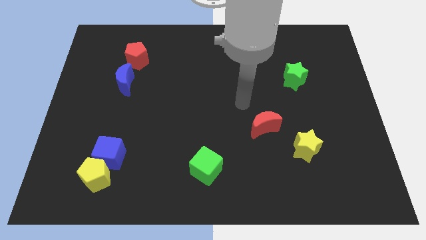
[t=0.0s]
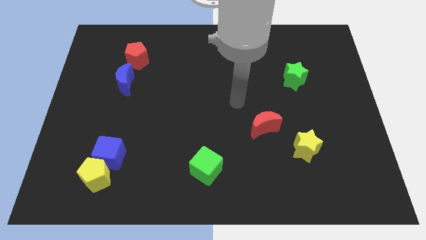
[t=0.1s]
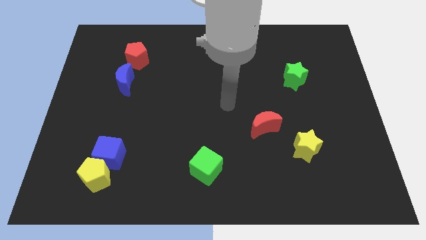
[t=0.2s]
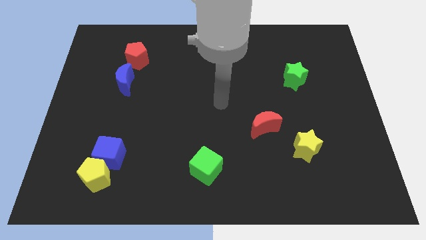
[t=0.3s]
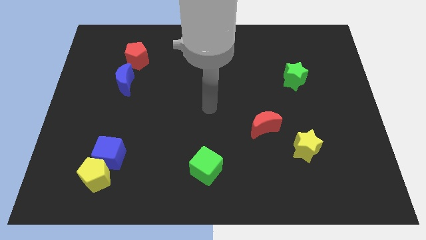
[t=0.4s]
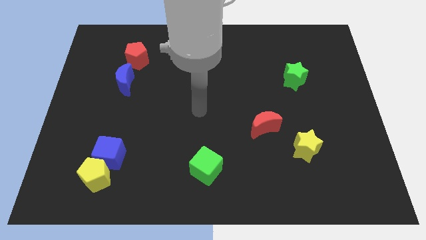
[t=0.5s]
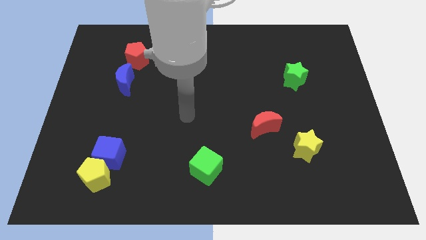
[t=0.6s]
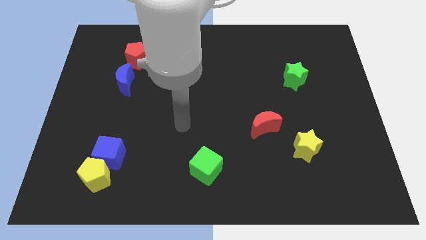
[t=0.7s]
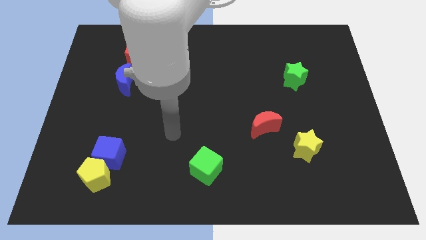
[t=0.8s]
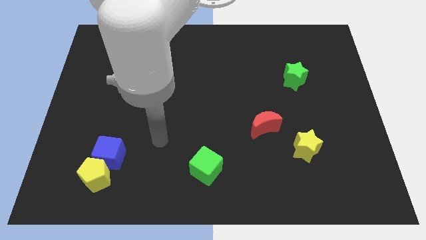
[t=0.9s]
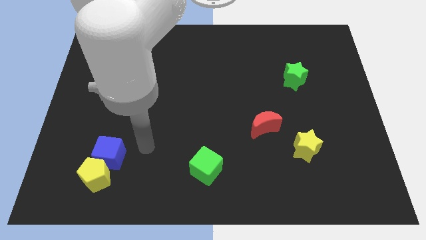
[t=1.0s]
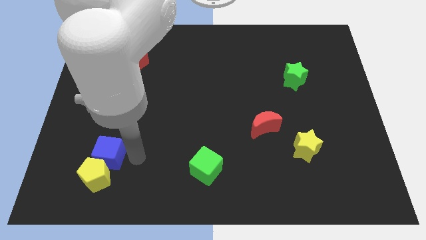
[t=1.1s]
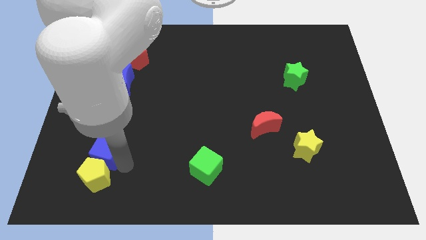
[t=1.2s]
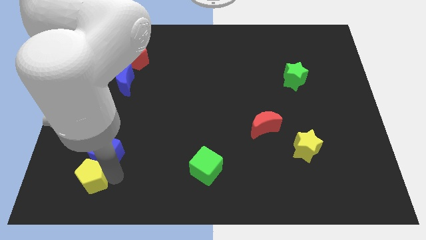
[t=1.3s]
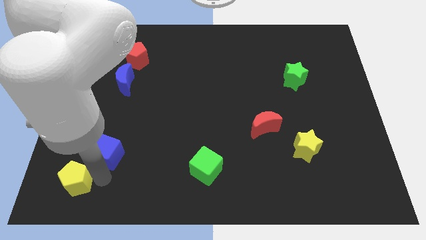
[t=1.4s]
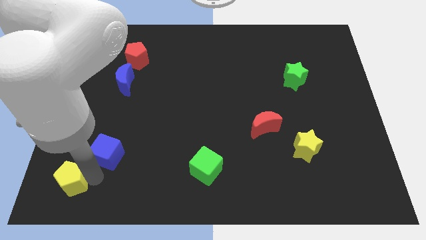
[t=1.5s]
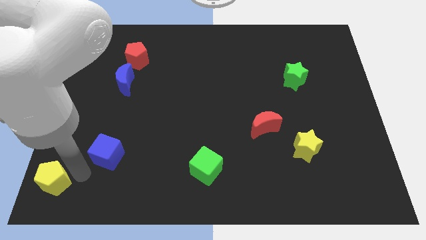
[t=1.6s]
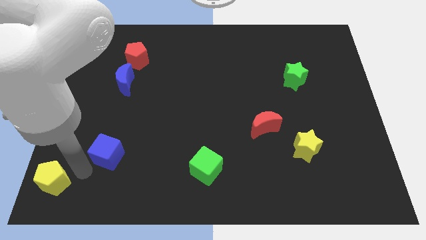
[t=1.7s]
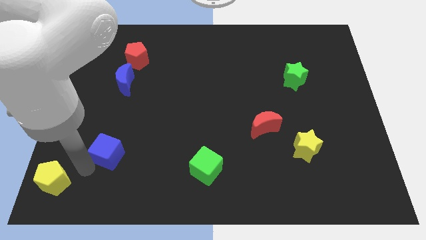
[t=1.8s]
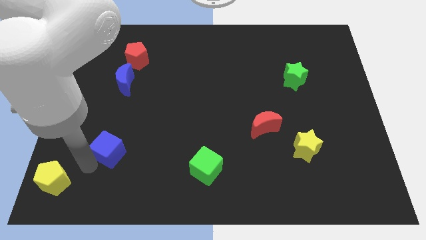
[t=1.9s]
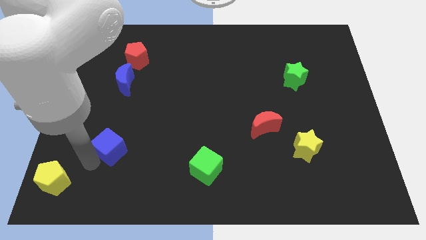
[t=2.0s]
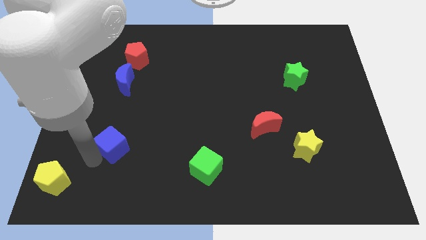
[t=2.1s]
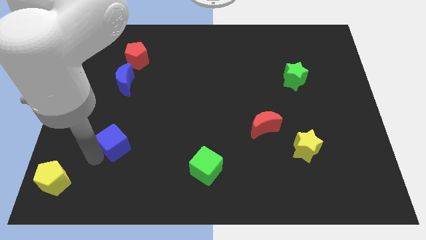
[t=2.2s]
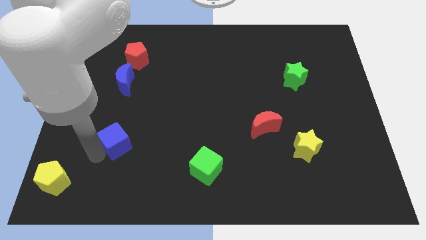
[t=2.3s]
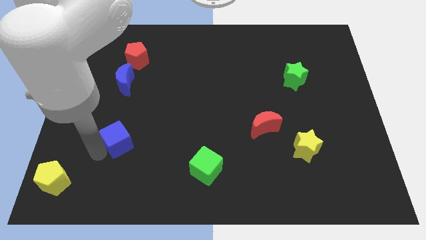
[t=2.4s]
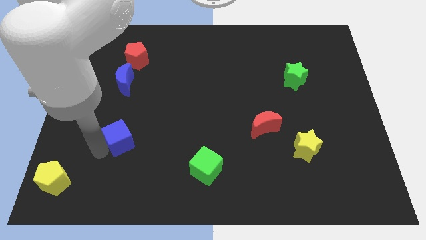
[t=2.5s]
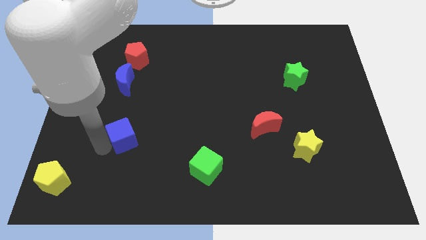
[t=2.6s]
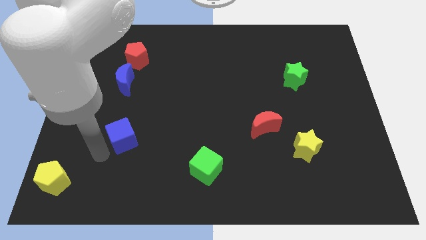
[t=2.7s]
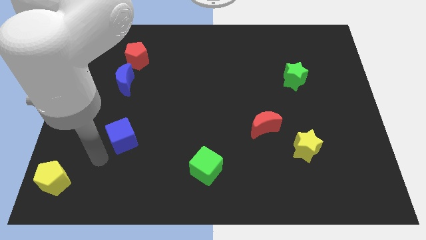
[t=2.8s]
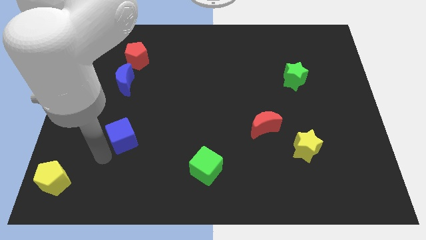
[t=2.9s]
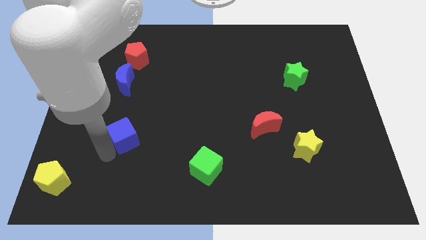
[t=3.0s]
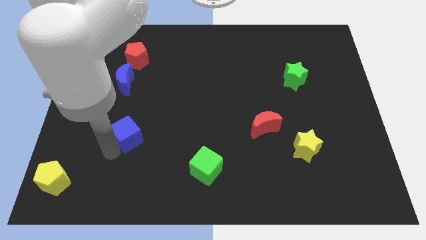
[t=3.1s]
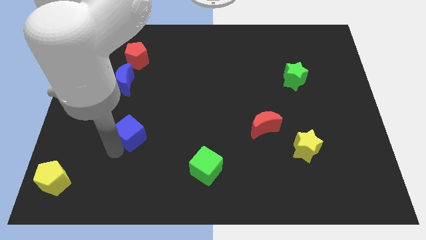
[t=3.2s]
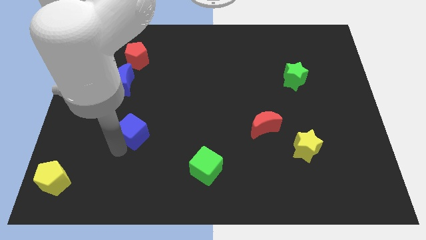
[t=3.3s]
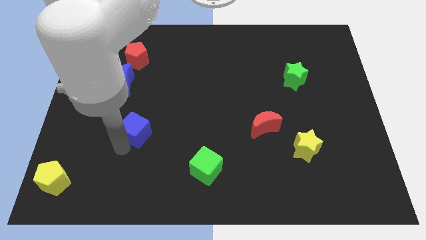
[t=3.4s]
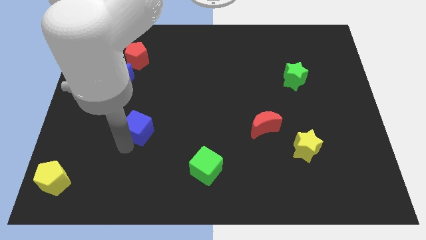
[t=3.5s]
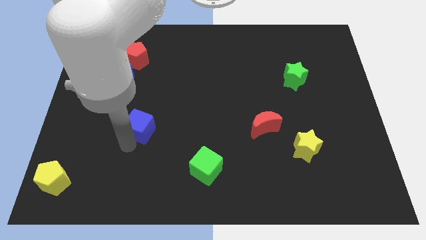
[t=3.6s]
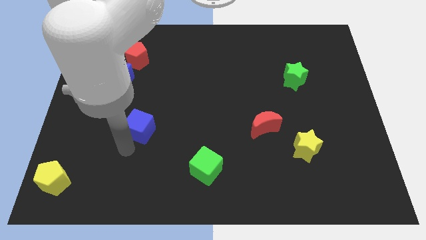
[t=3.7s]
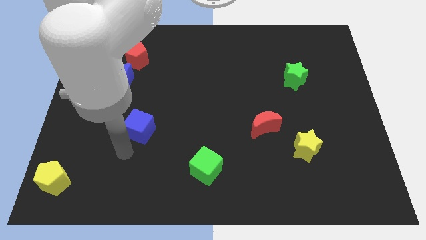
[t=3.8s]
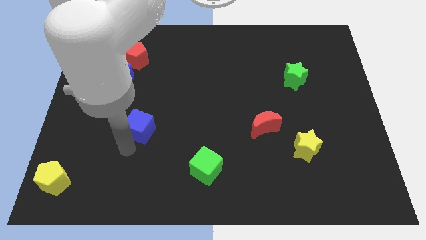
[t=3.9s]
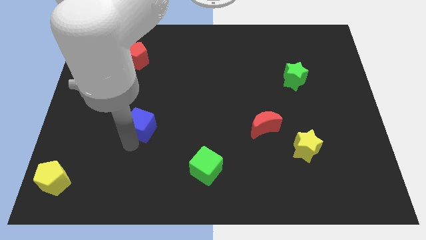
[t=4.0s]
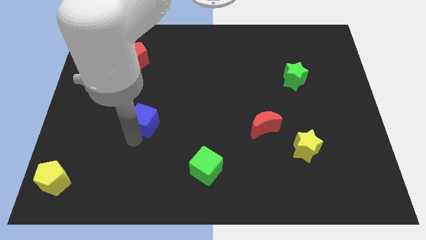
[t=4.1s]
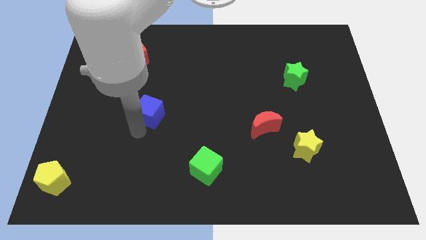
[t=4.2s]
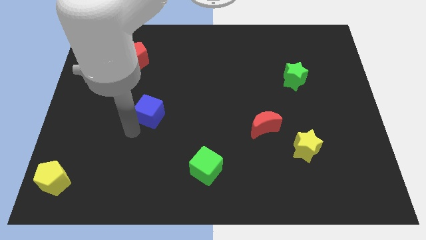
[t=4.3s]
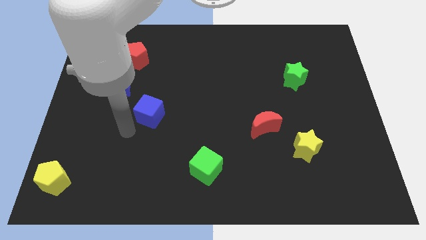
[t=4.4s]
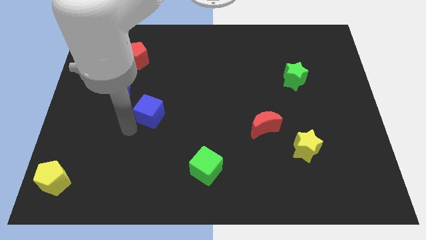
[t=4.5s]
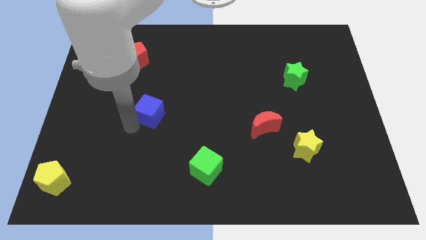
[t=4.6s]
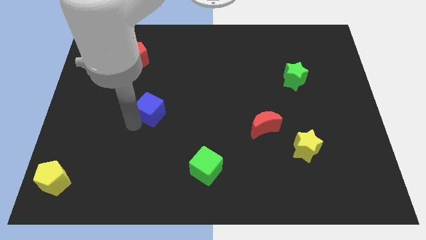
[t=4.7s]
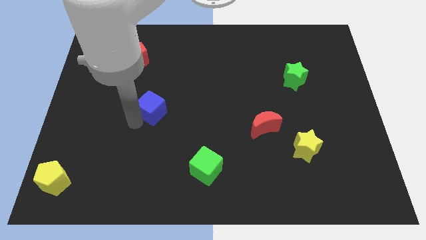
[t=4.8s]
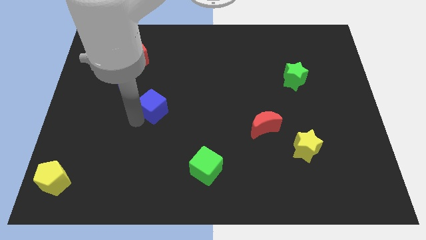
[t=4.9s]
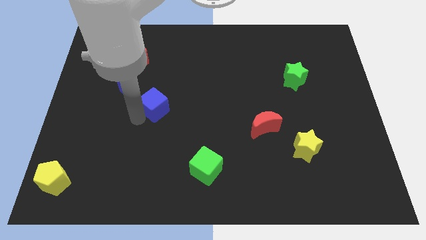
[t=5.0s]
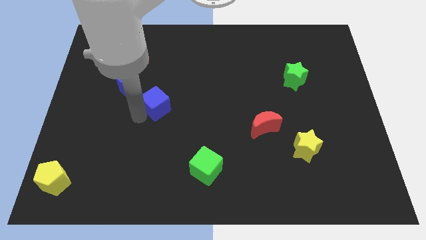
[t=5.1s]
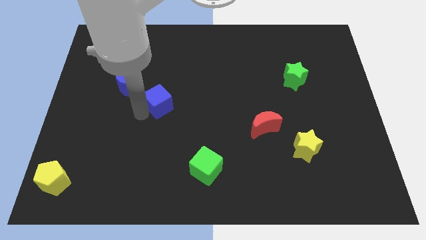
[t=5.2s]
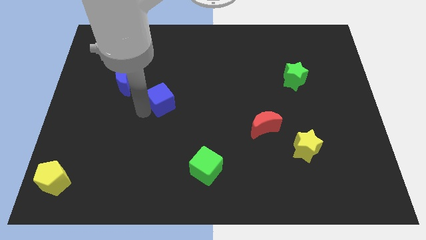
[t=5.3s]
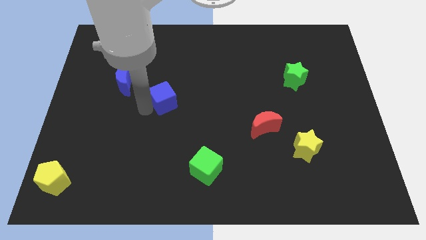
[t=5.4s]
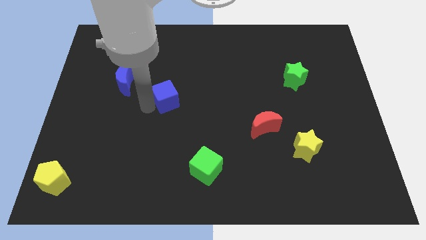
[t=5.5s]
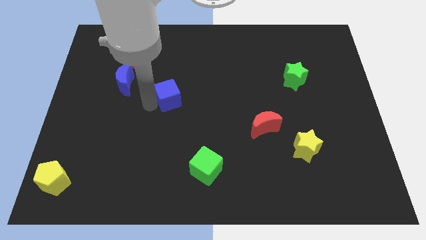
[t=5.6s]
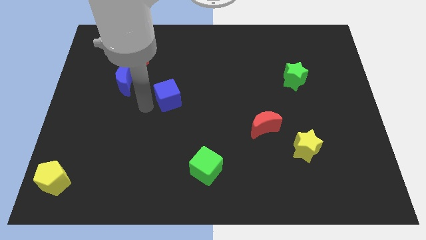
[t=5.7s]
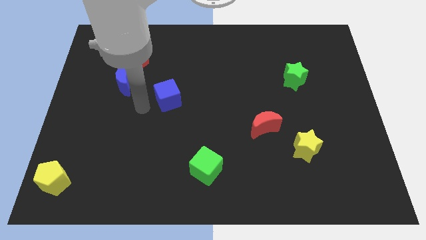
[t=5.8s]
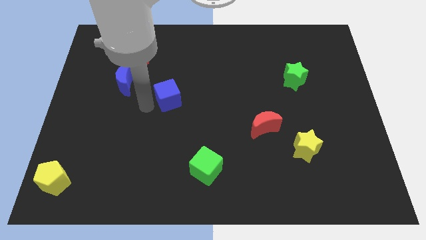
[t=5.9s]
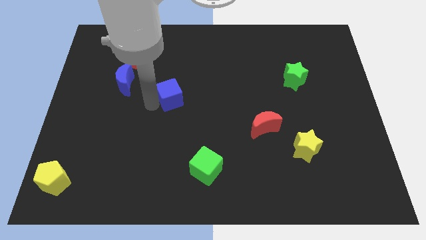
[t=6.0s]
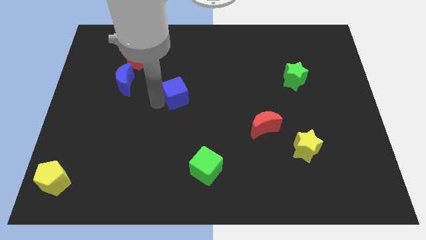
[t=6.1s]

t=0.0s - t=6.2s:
push the blue cube up and then to the right

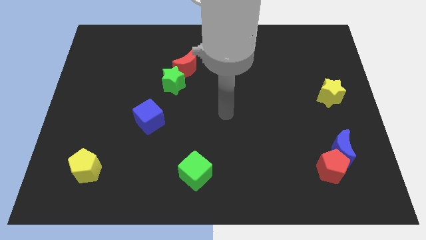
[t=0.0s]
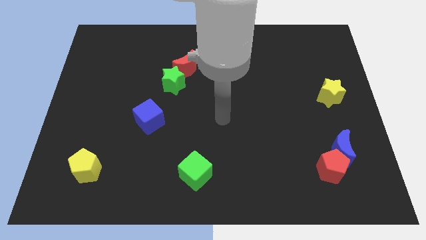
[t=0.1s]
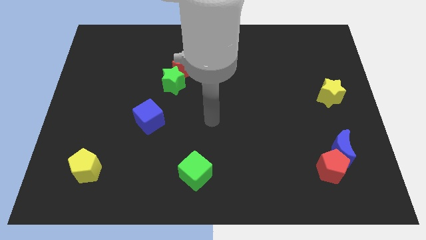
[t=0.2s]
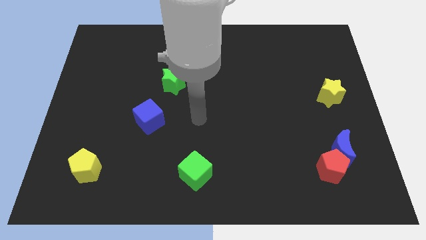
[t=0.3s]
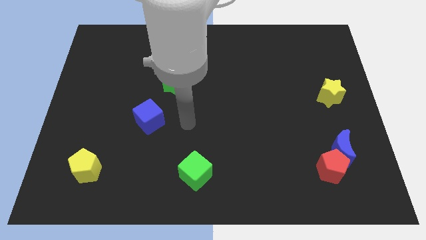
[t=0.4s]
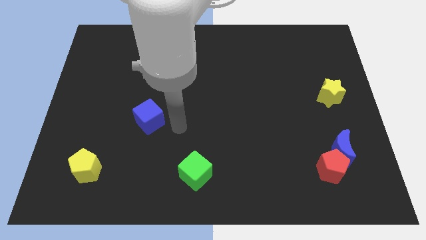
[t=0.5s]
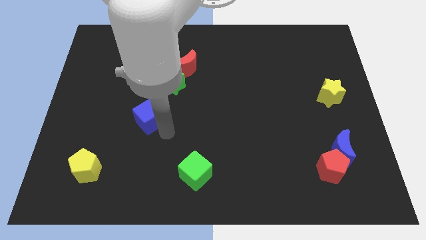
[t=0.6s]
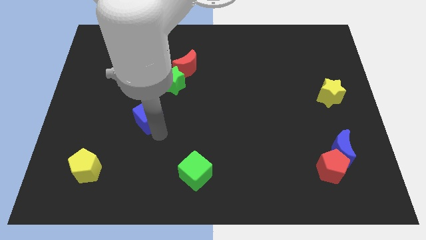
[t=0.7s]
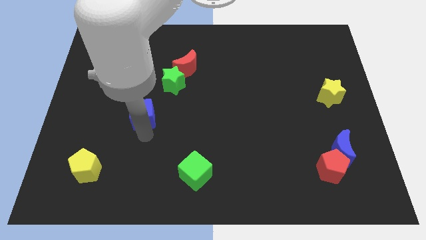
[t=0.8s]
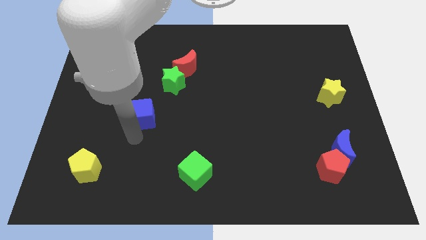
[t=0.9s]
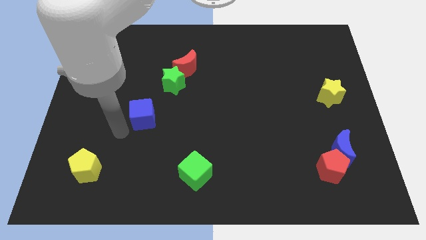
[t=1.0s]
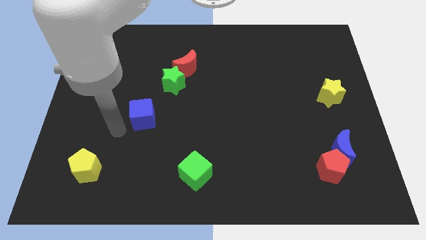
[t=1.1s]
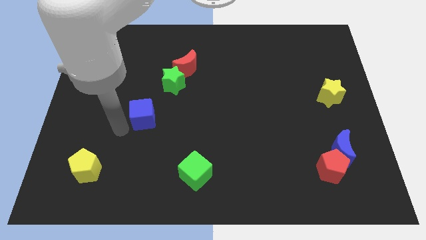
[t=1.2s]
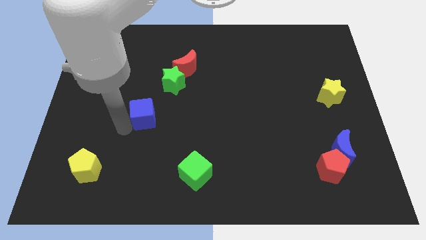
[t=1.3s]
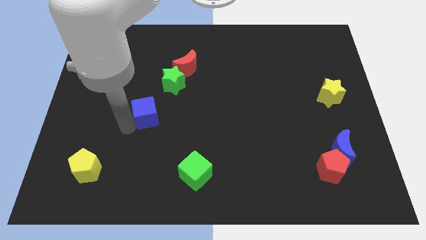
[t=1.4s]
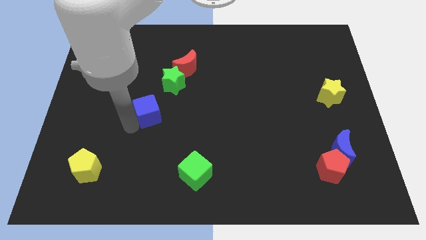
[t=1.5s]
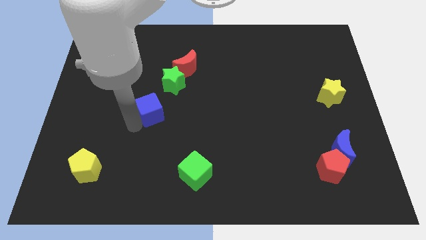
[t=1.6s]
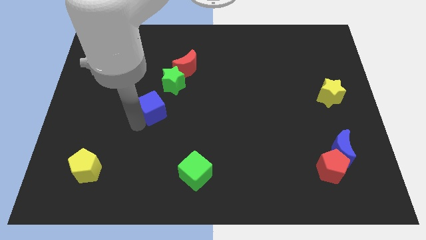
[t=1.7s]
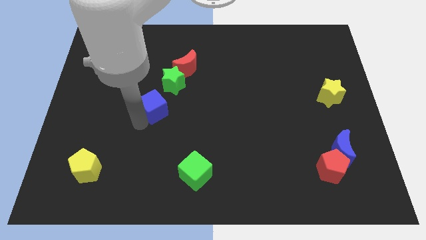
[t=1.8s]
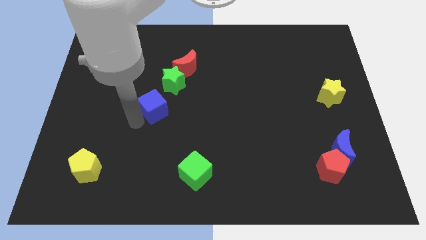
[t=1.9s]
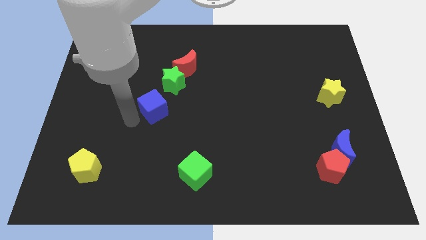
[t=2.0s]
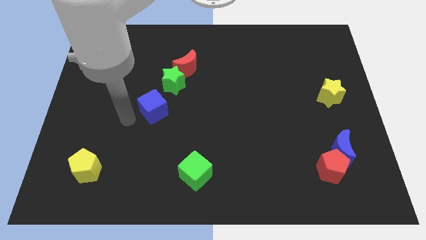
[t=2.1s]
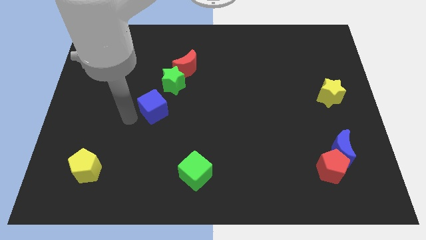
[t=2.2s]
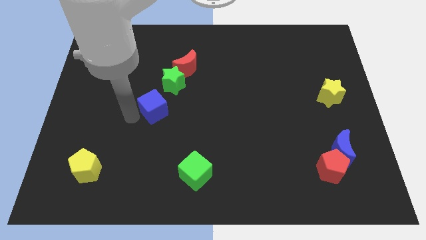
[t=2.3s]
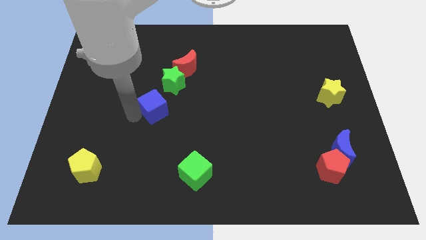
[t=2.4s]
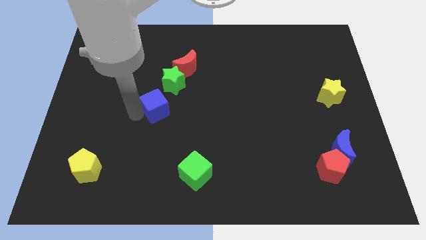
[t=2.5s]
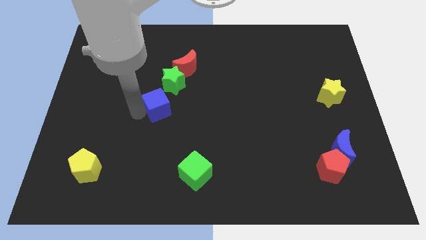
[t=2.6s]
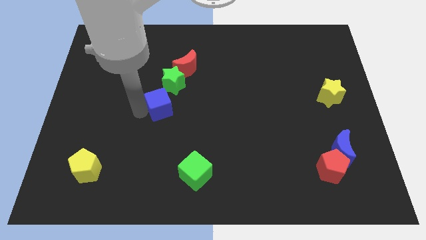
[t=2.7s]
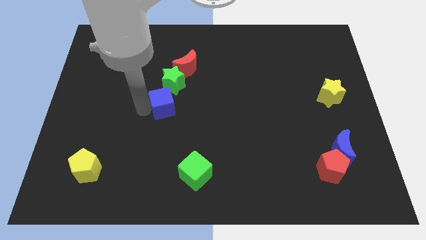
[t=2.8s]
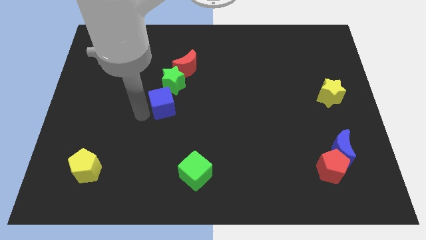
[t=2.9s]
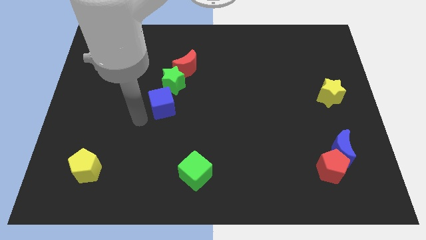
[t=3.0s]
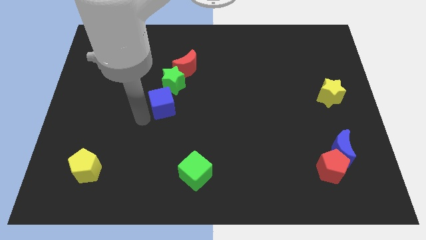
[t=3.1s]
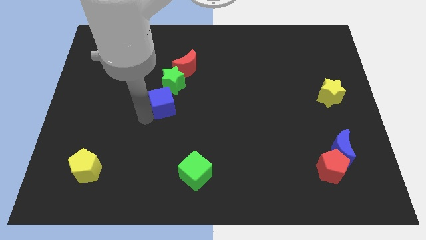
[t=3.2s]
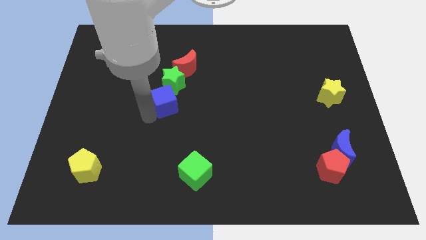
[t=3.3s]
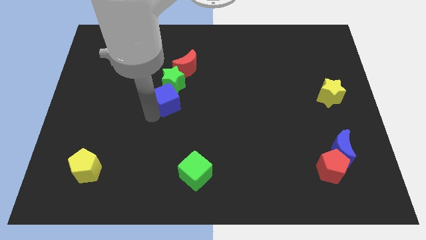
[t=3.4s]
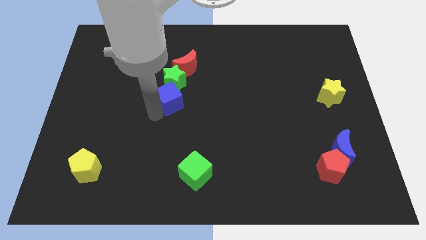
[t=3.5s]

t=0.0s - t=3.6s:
slightly move the blue cube upwards and then to the right
